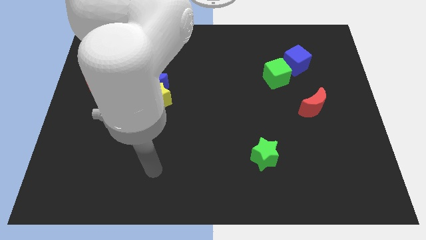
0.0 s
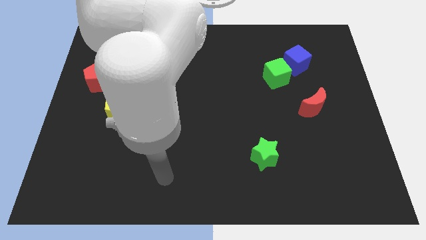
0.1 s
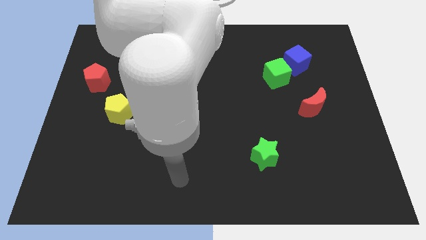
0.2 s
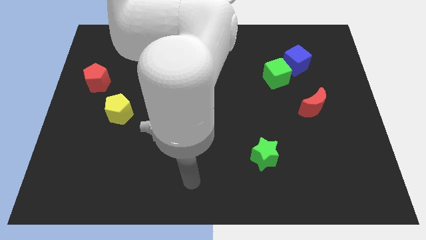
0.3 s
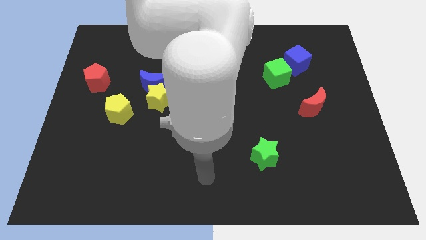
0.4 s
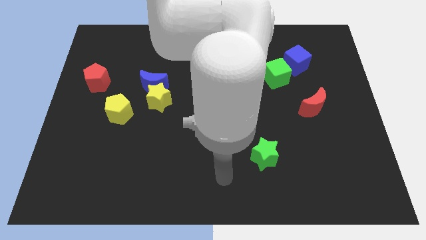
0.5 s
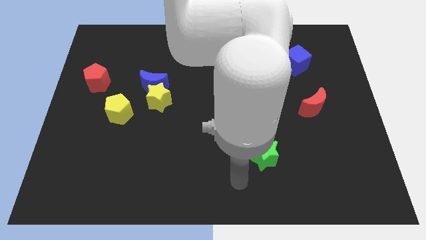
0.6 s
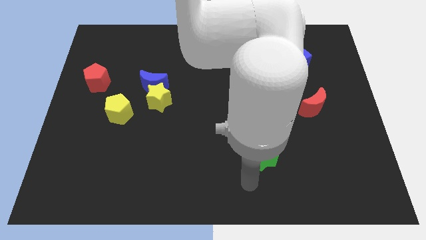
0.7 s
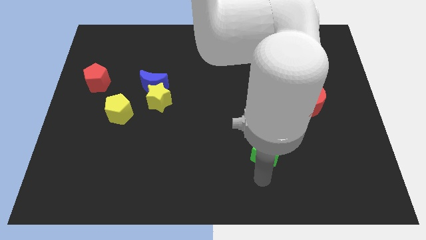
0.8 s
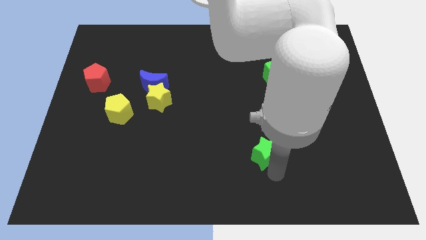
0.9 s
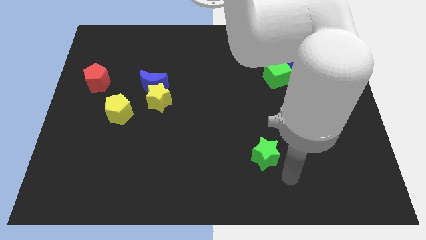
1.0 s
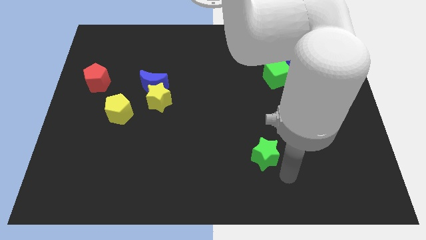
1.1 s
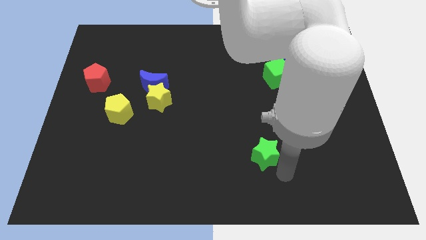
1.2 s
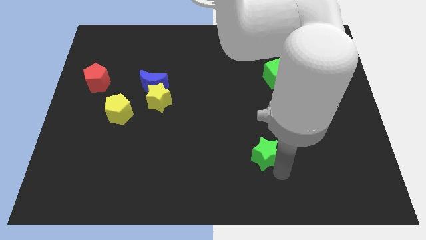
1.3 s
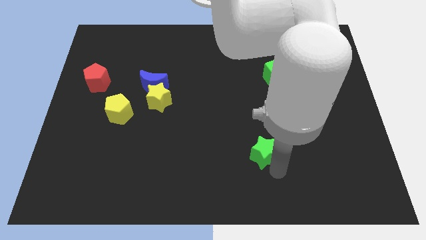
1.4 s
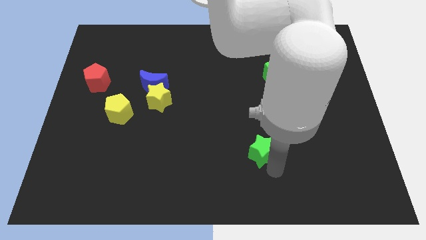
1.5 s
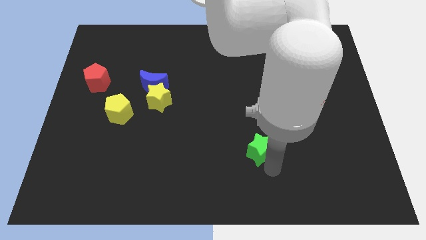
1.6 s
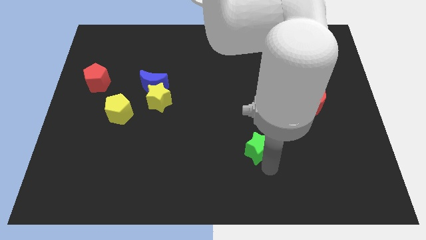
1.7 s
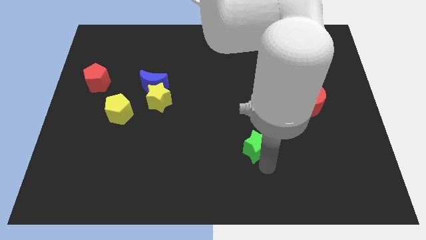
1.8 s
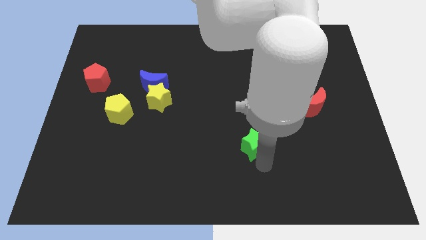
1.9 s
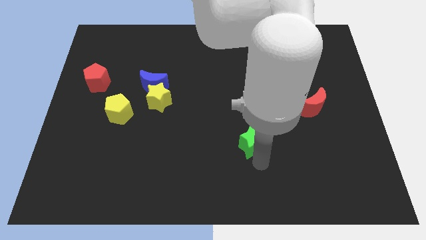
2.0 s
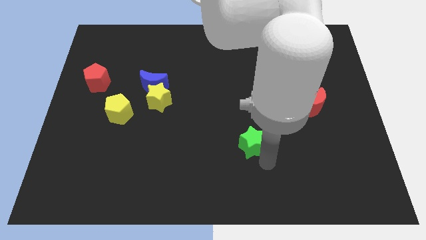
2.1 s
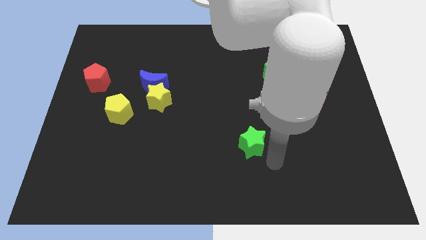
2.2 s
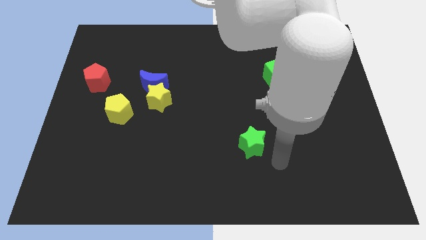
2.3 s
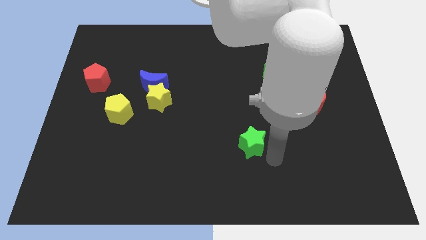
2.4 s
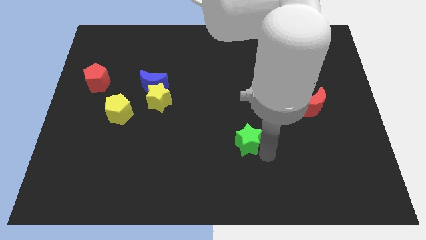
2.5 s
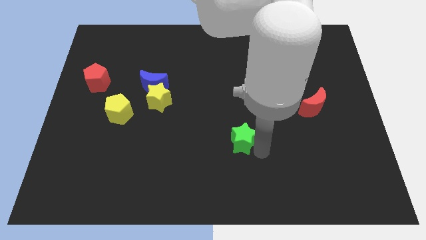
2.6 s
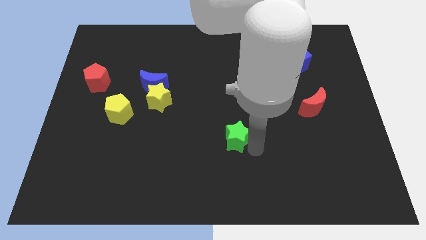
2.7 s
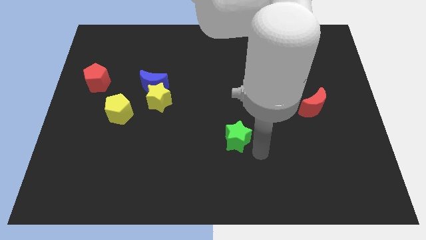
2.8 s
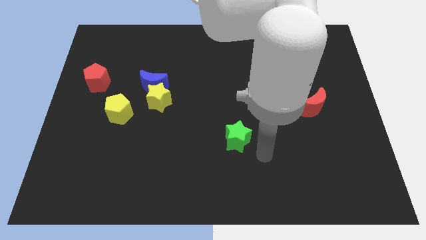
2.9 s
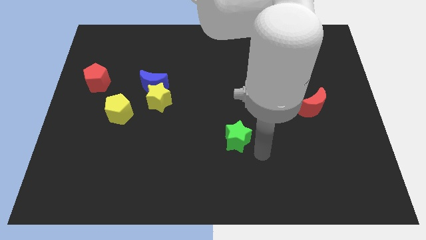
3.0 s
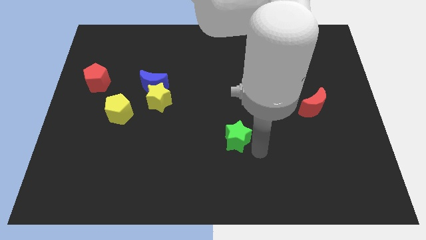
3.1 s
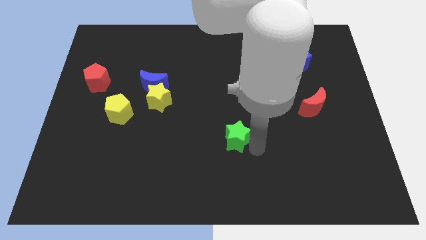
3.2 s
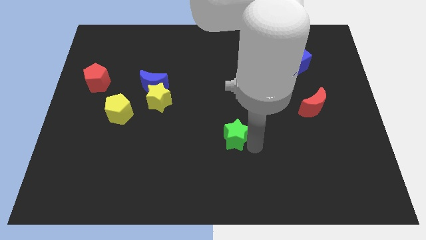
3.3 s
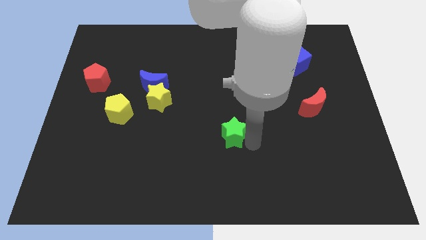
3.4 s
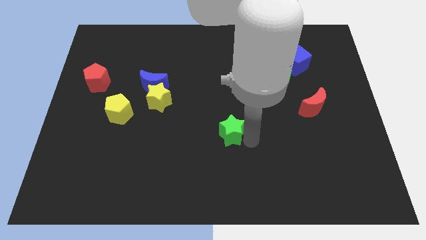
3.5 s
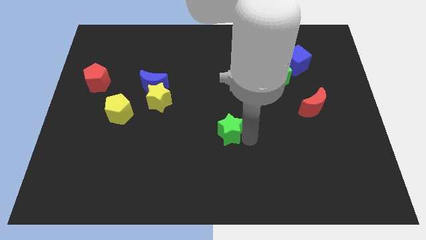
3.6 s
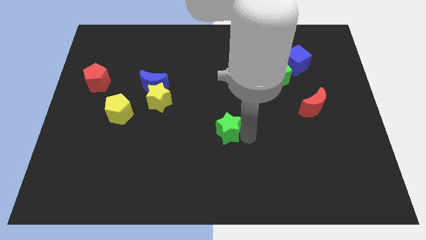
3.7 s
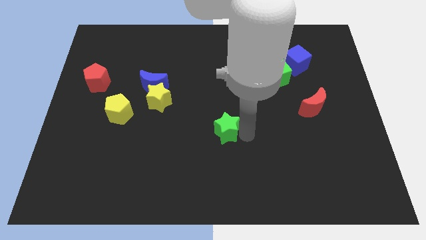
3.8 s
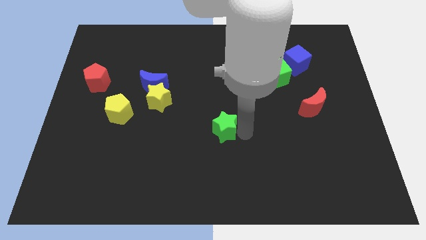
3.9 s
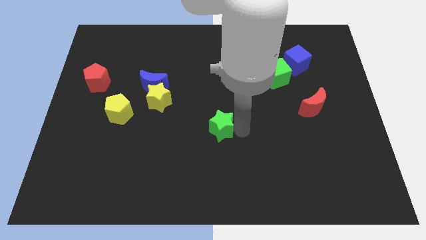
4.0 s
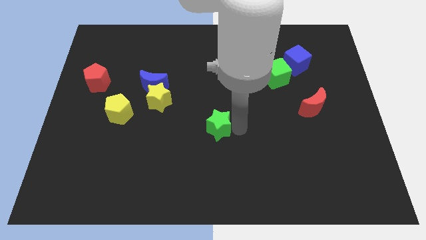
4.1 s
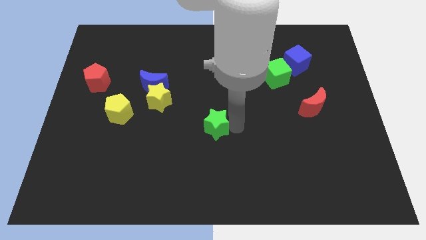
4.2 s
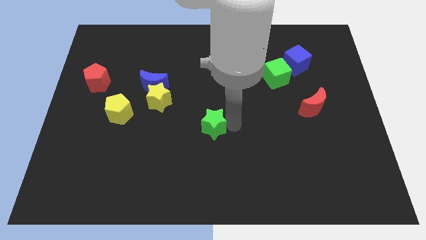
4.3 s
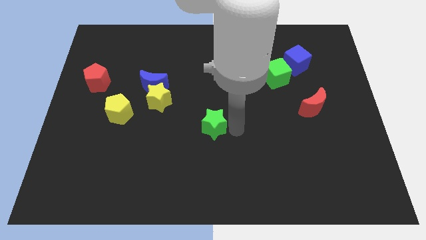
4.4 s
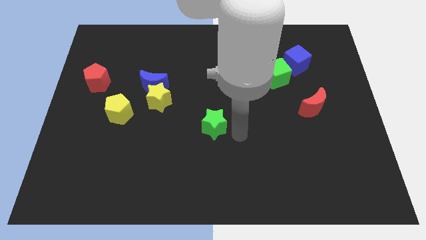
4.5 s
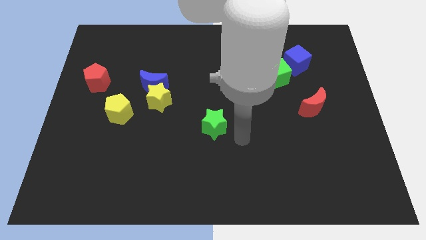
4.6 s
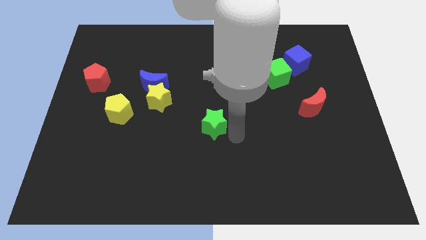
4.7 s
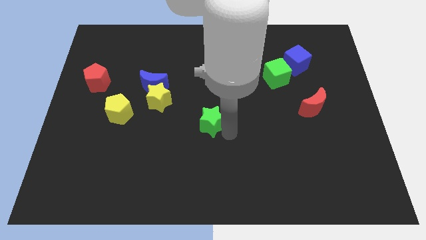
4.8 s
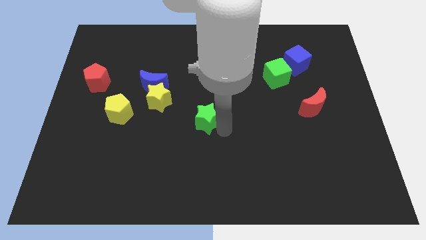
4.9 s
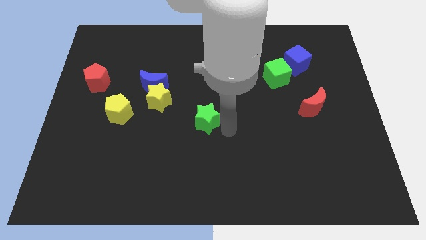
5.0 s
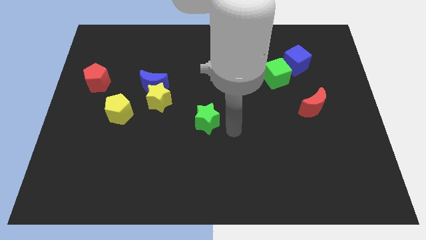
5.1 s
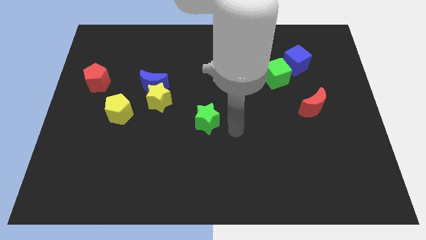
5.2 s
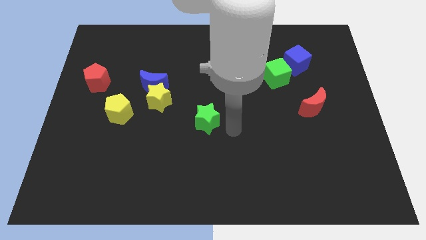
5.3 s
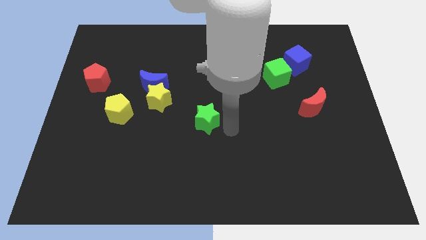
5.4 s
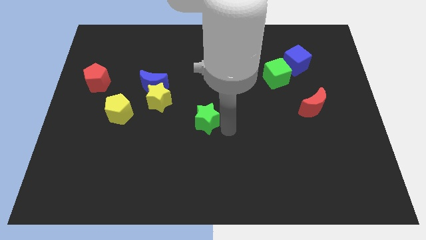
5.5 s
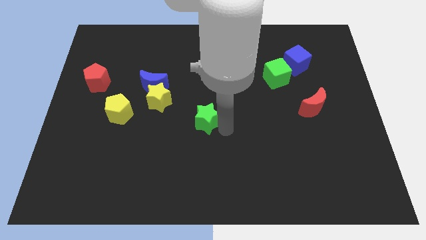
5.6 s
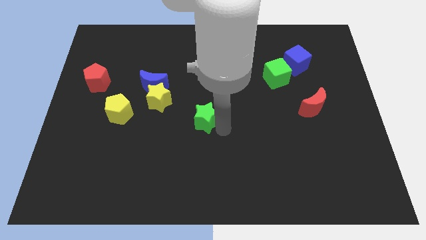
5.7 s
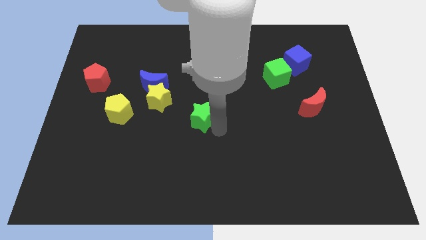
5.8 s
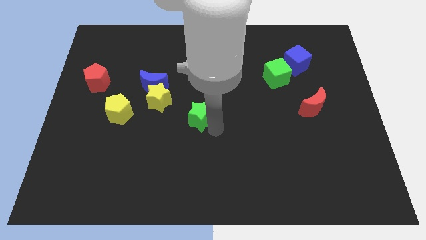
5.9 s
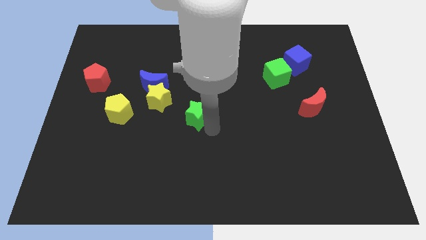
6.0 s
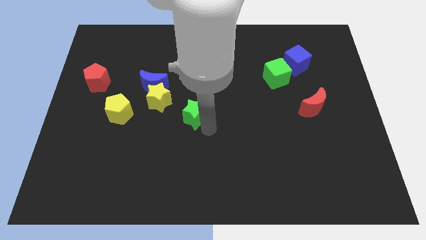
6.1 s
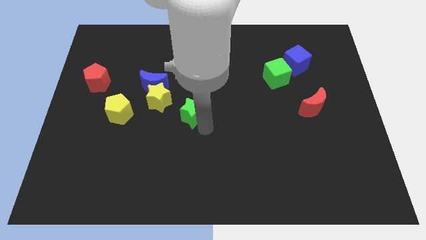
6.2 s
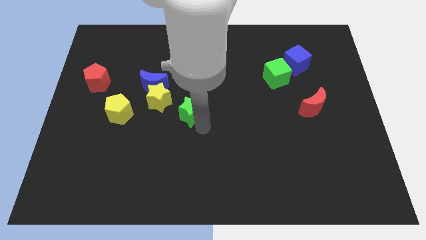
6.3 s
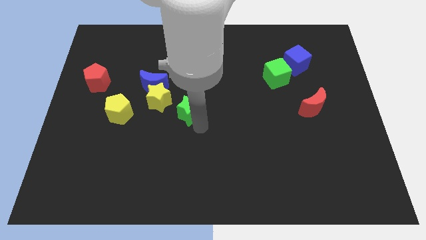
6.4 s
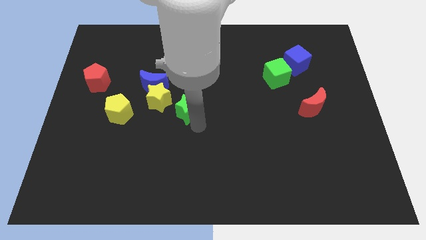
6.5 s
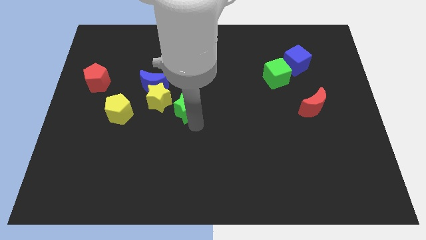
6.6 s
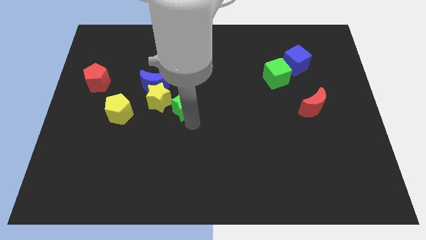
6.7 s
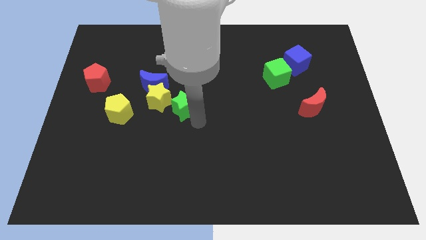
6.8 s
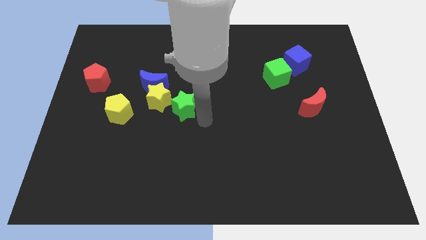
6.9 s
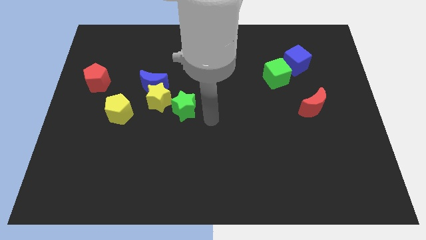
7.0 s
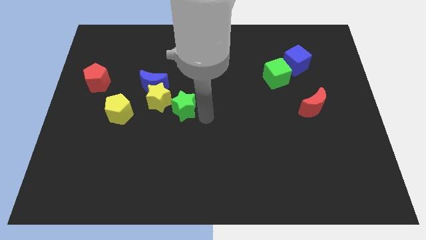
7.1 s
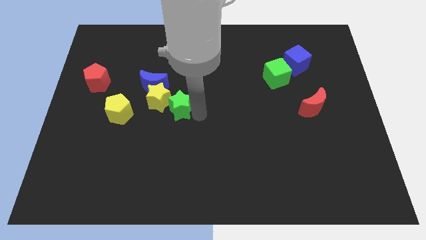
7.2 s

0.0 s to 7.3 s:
push the green star to the yellow star
